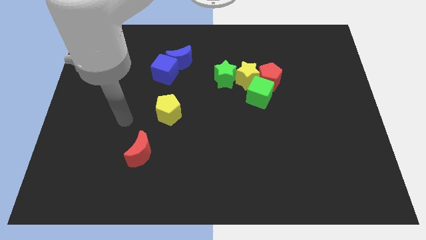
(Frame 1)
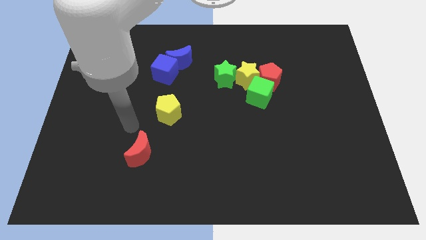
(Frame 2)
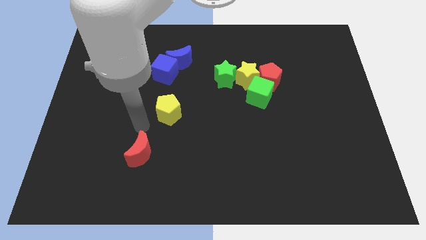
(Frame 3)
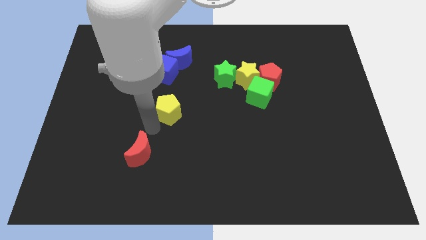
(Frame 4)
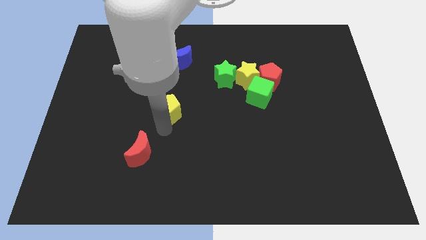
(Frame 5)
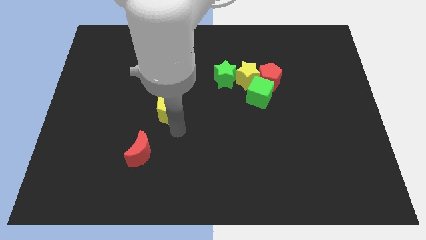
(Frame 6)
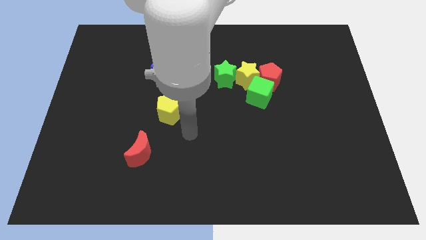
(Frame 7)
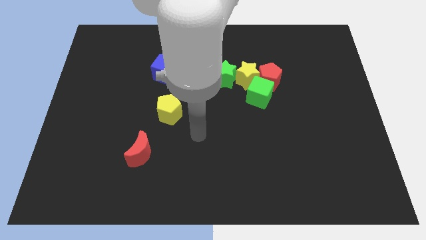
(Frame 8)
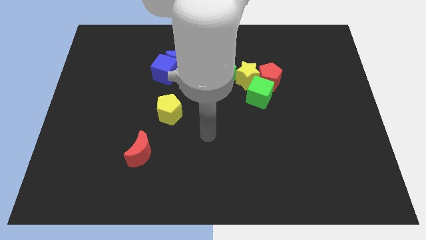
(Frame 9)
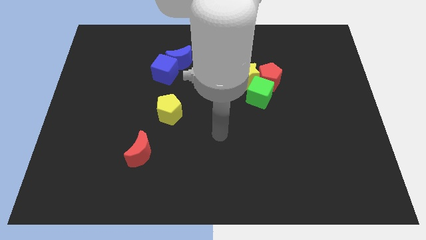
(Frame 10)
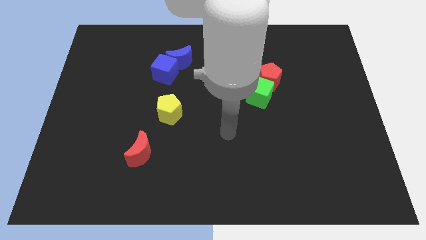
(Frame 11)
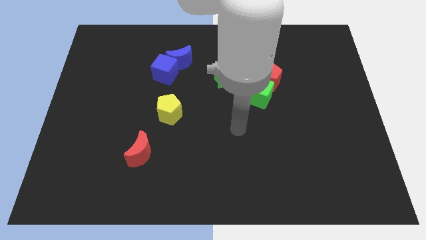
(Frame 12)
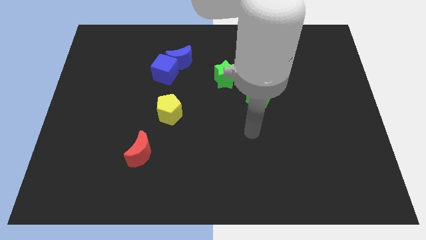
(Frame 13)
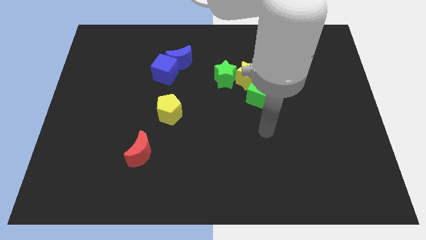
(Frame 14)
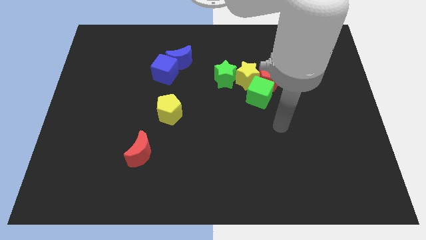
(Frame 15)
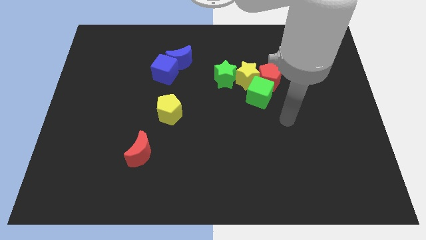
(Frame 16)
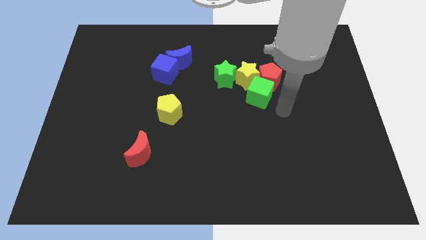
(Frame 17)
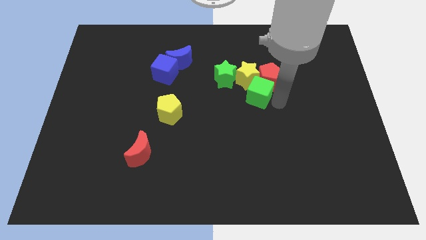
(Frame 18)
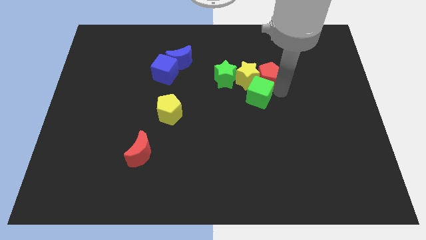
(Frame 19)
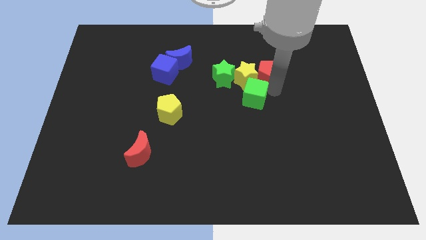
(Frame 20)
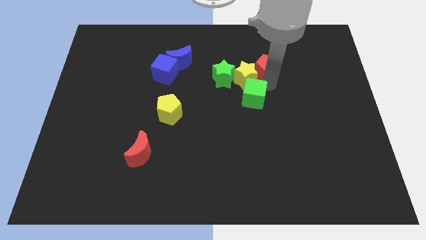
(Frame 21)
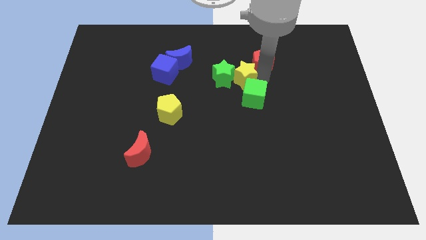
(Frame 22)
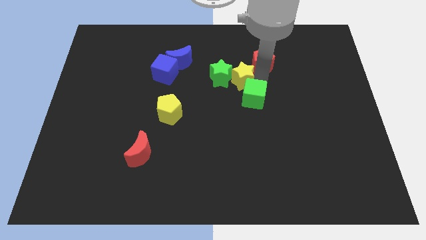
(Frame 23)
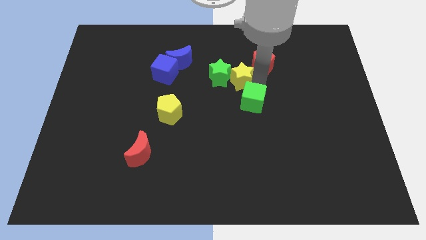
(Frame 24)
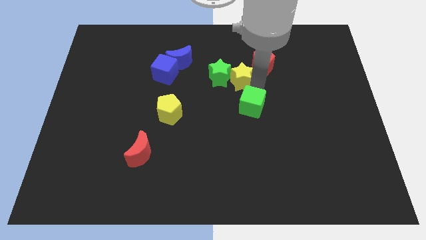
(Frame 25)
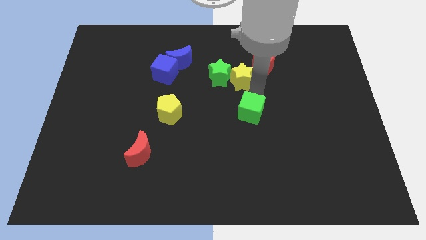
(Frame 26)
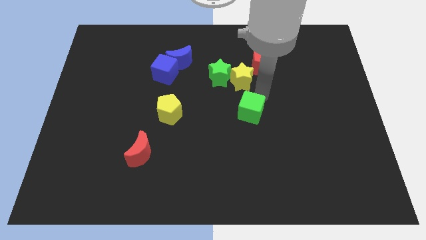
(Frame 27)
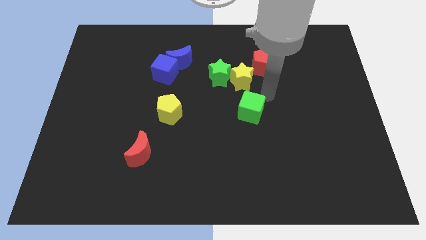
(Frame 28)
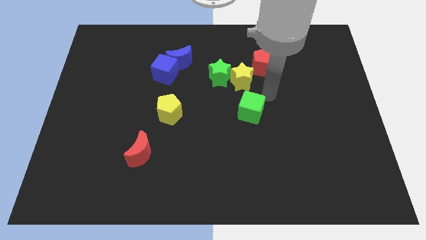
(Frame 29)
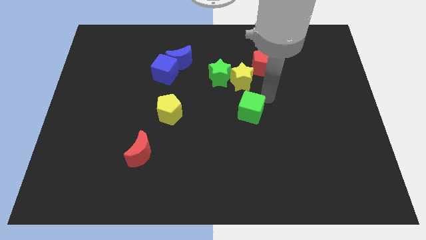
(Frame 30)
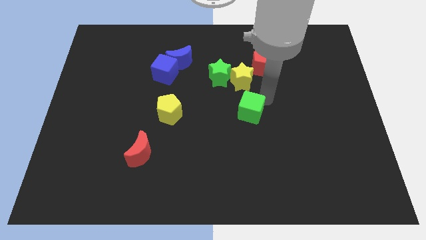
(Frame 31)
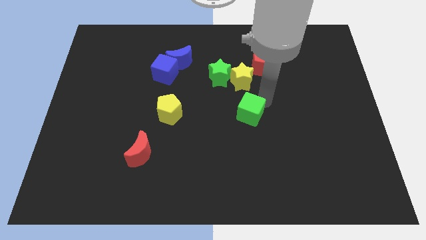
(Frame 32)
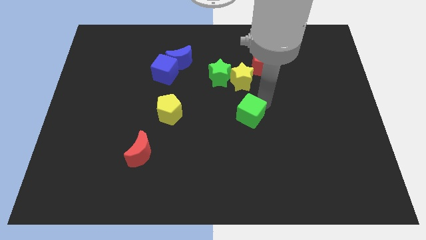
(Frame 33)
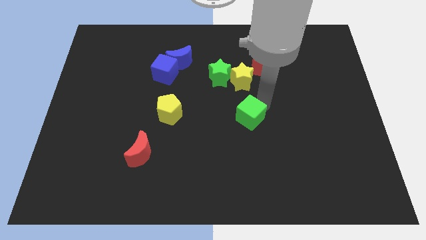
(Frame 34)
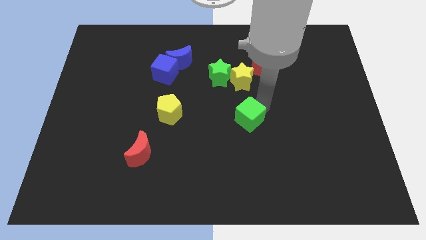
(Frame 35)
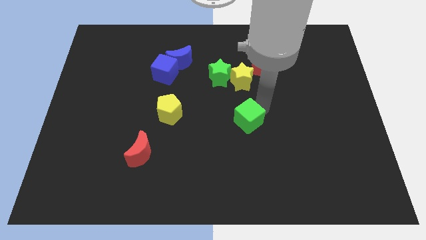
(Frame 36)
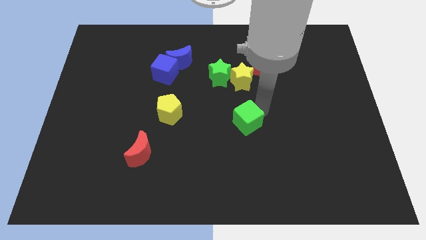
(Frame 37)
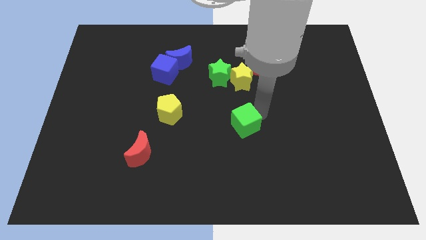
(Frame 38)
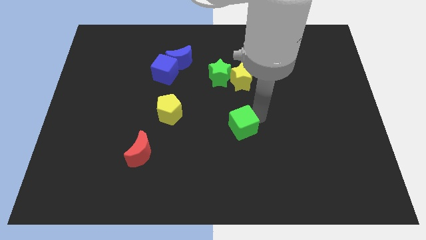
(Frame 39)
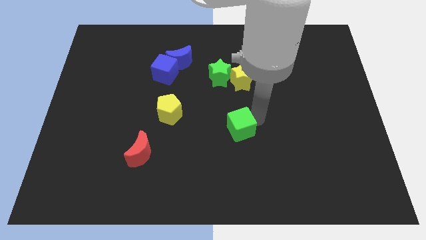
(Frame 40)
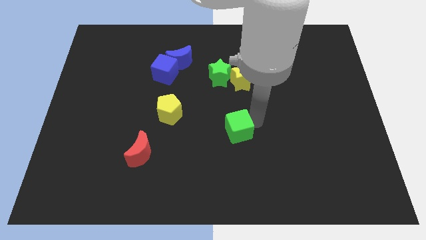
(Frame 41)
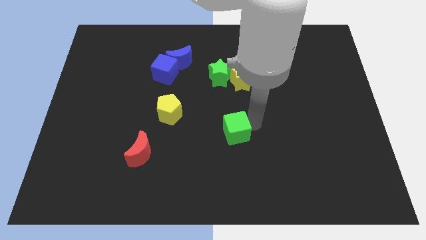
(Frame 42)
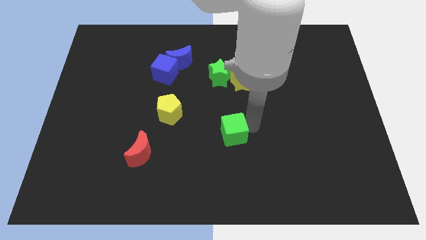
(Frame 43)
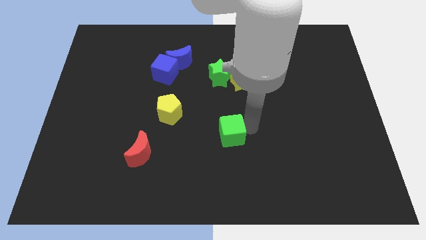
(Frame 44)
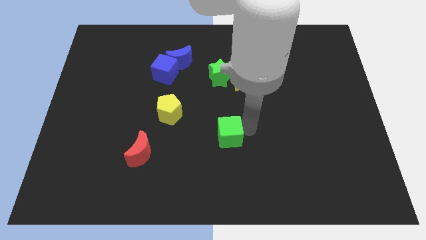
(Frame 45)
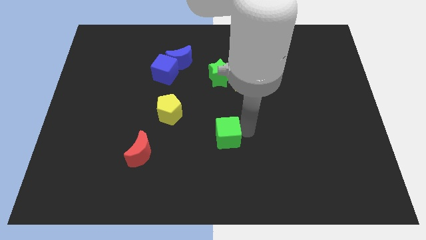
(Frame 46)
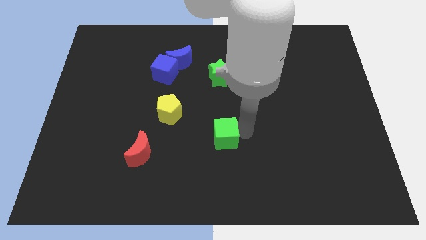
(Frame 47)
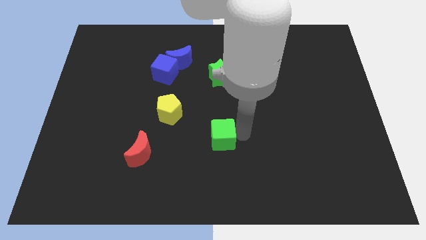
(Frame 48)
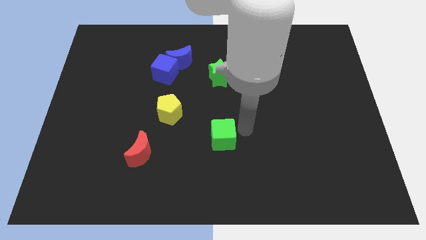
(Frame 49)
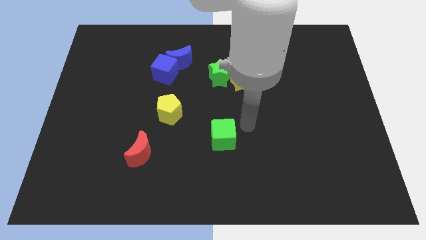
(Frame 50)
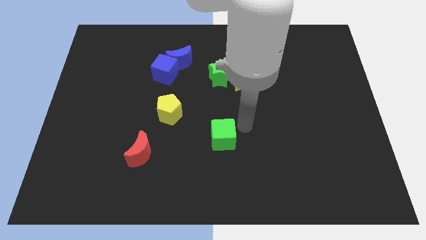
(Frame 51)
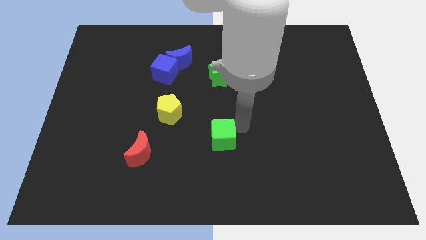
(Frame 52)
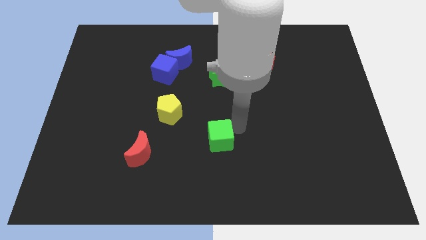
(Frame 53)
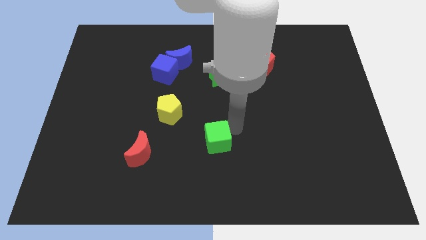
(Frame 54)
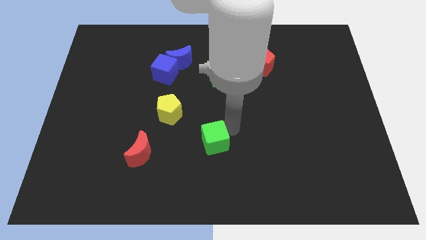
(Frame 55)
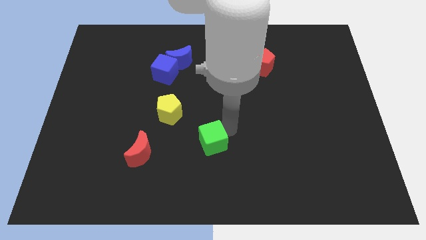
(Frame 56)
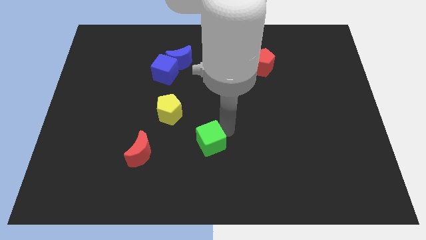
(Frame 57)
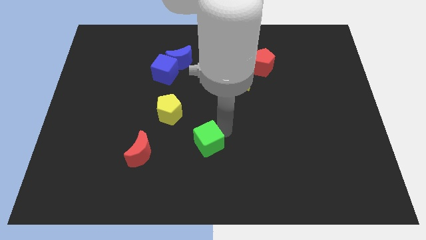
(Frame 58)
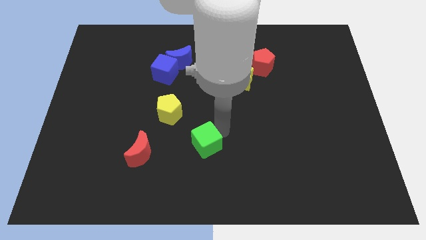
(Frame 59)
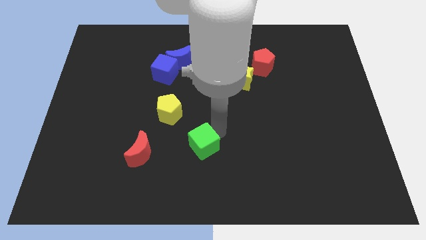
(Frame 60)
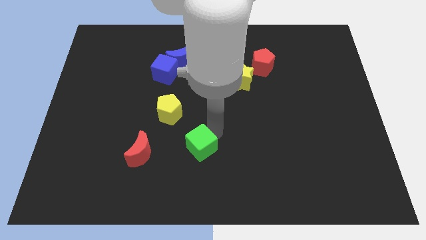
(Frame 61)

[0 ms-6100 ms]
push the green cube down and to the left

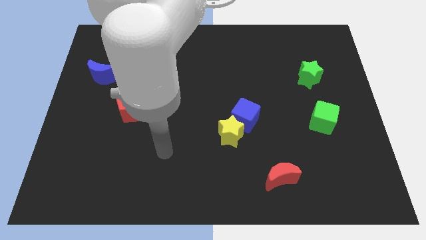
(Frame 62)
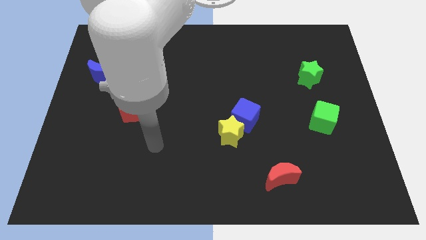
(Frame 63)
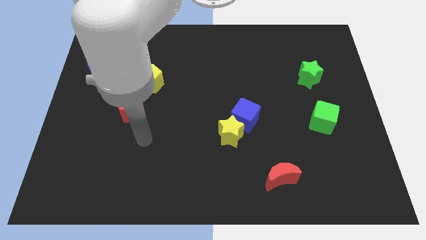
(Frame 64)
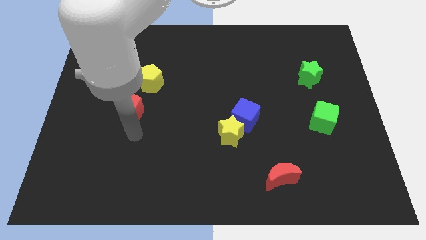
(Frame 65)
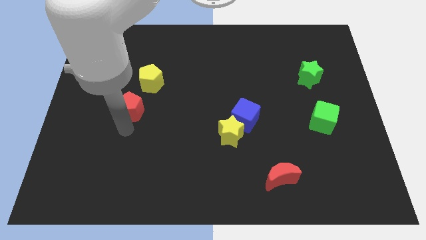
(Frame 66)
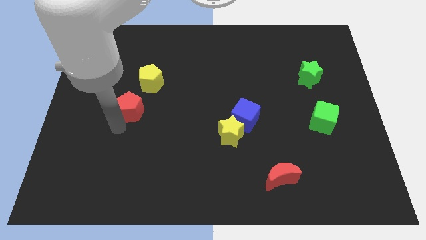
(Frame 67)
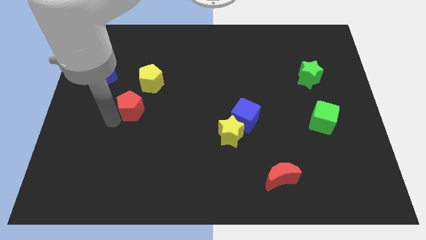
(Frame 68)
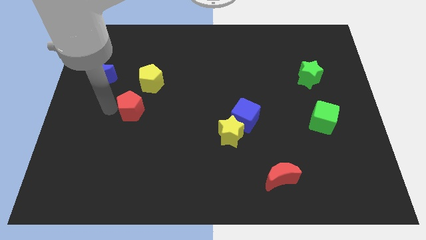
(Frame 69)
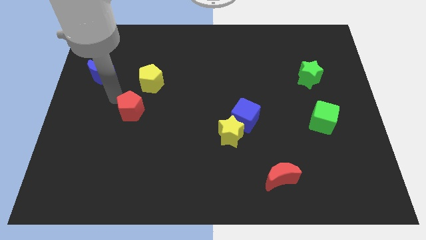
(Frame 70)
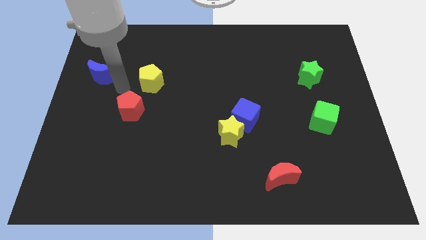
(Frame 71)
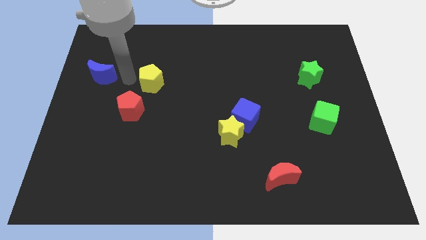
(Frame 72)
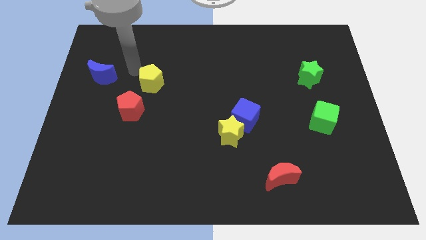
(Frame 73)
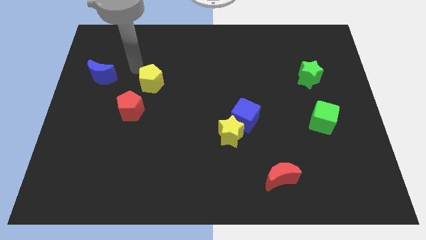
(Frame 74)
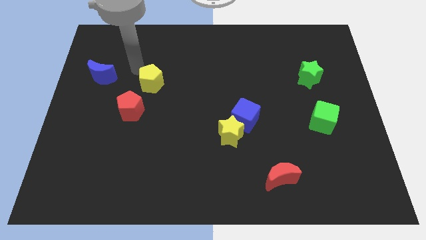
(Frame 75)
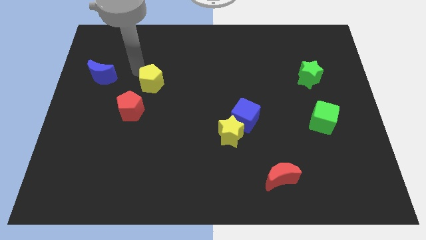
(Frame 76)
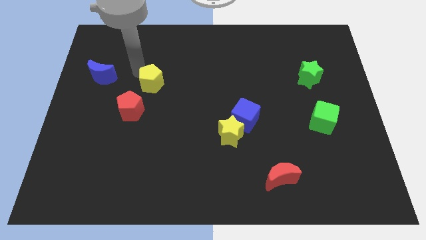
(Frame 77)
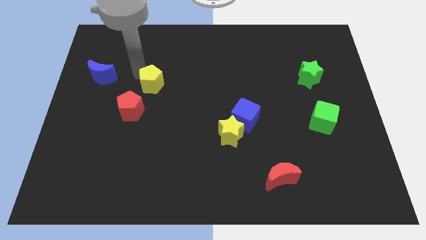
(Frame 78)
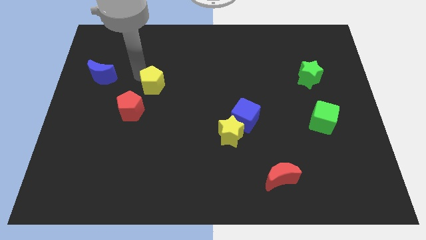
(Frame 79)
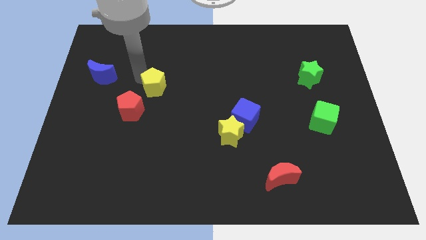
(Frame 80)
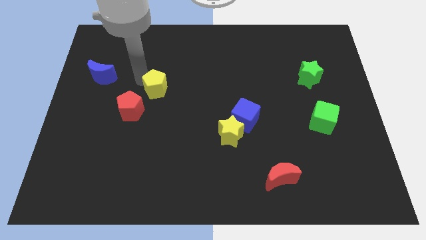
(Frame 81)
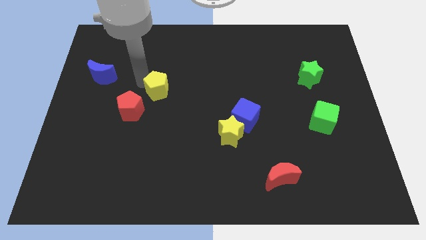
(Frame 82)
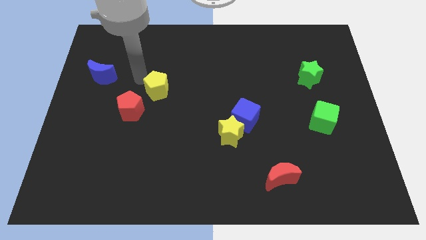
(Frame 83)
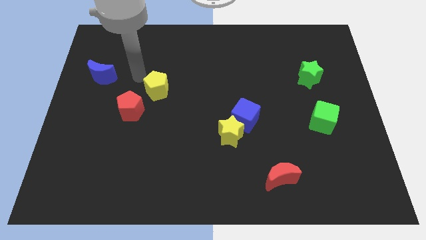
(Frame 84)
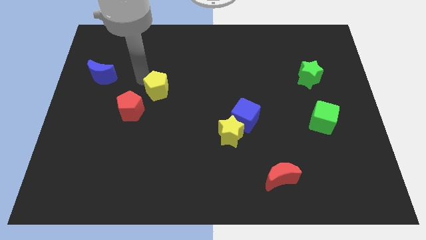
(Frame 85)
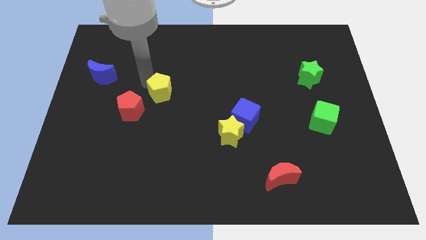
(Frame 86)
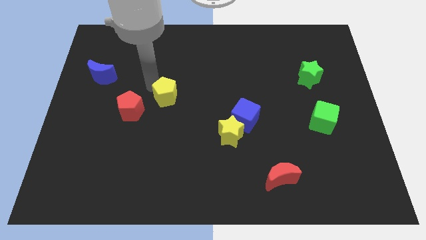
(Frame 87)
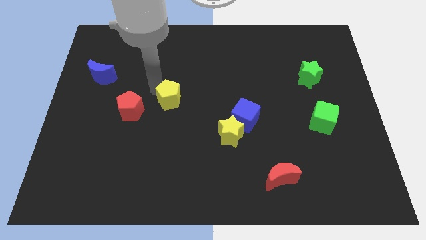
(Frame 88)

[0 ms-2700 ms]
move the yellow pentagon a little downwards and to the right
